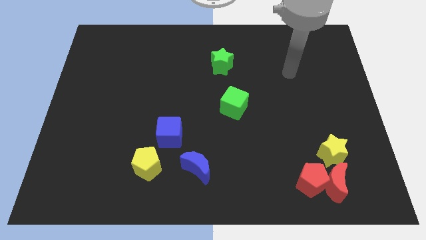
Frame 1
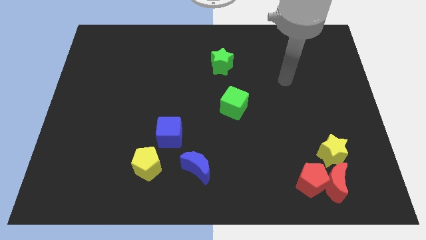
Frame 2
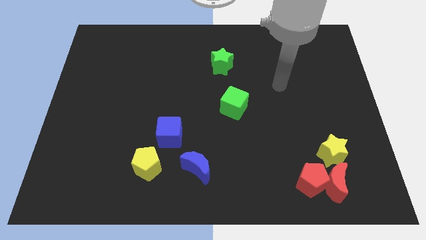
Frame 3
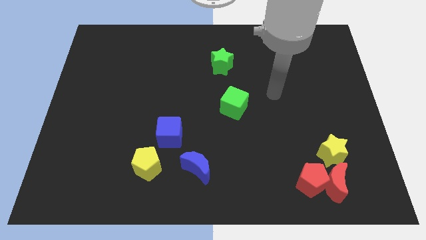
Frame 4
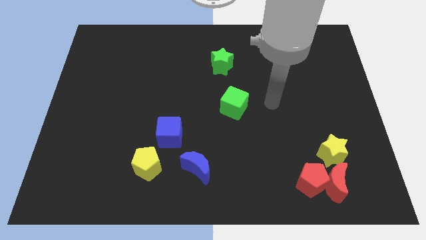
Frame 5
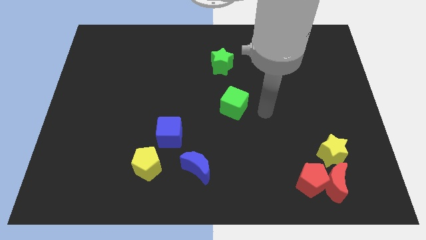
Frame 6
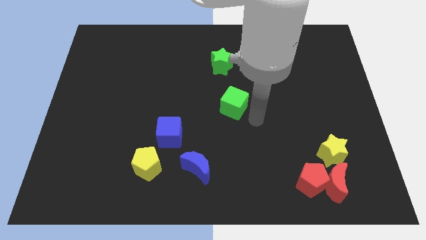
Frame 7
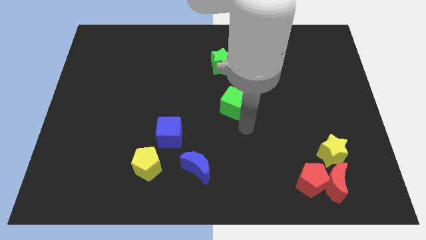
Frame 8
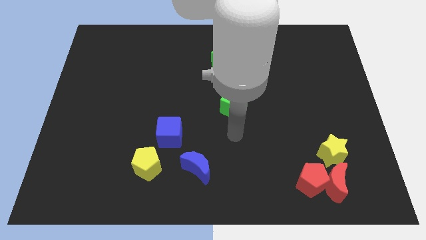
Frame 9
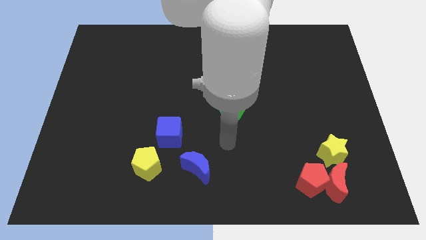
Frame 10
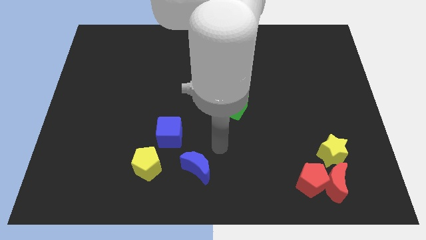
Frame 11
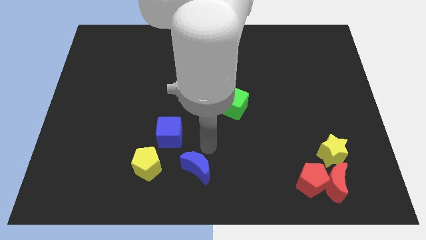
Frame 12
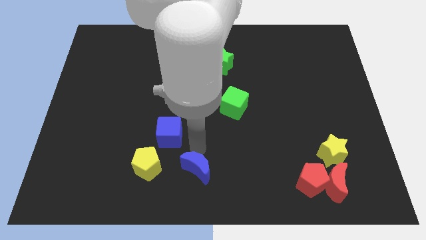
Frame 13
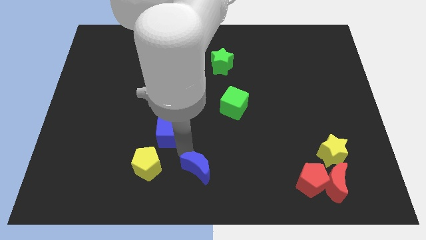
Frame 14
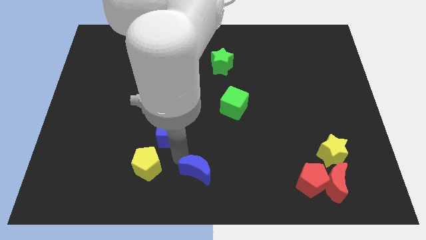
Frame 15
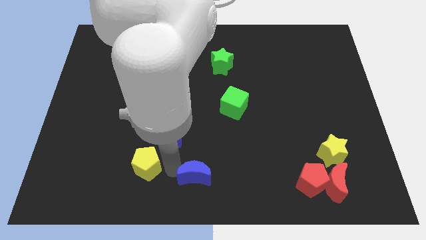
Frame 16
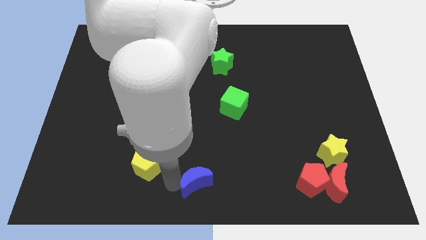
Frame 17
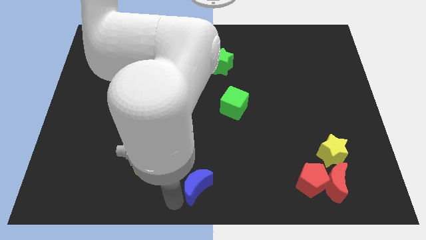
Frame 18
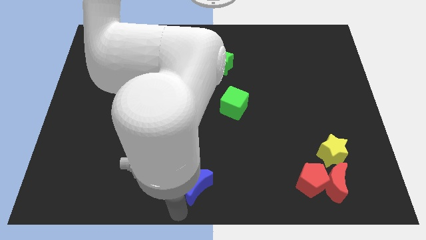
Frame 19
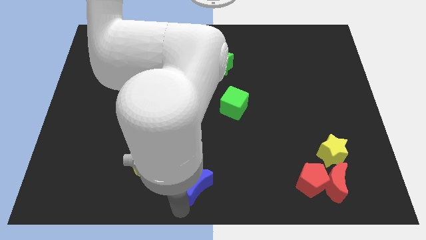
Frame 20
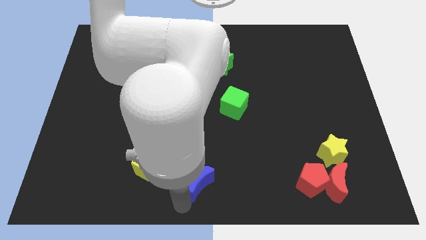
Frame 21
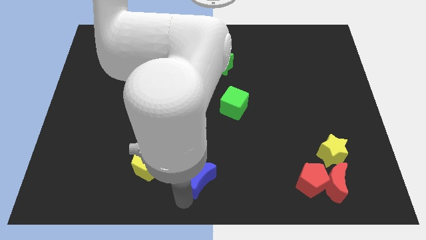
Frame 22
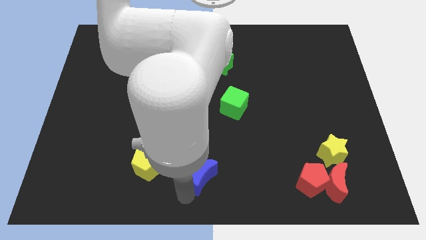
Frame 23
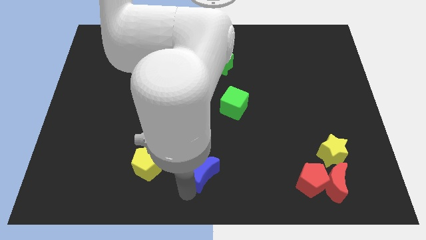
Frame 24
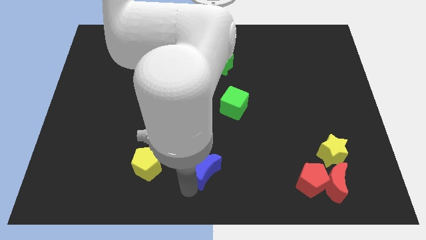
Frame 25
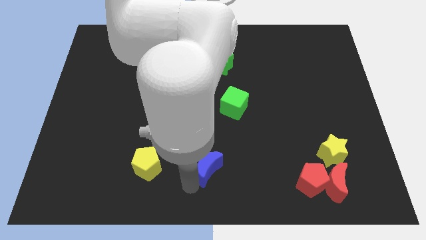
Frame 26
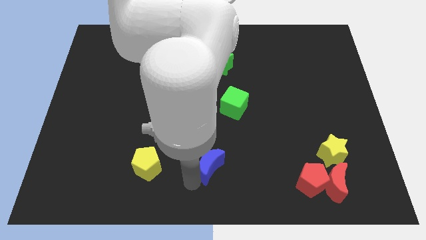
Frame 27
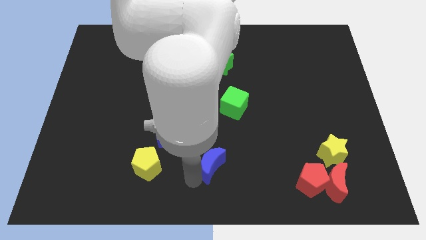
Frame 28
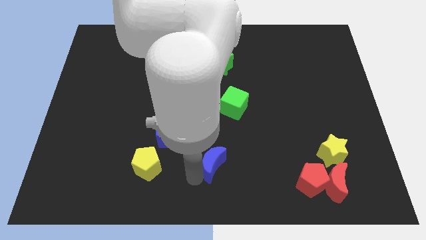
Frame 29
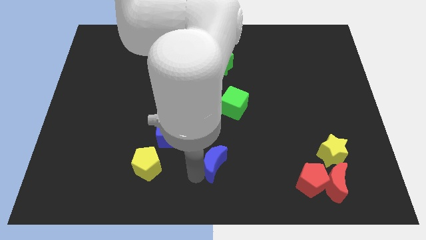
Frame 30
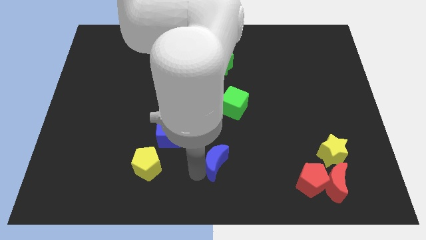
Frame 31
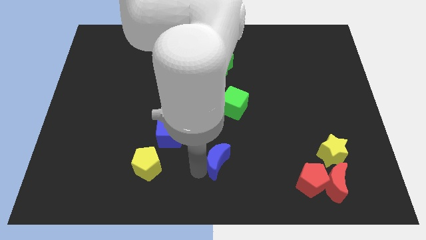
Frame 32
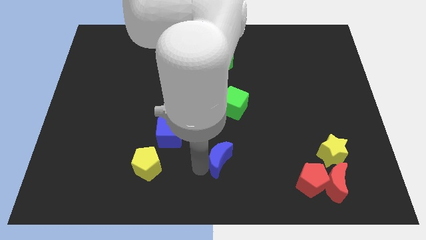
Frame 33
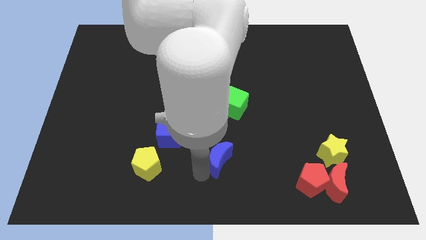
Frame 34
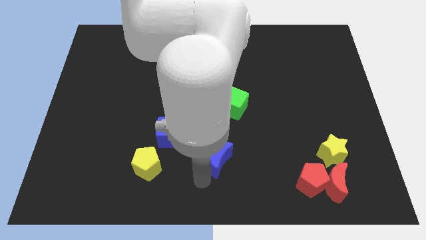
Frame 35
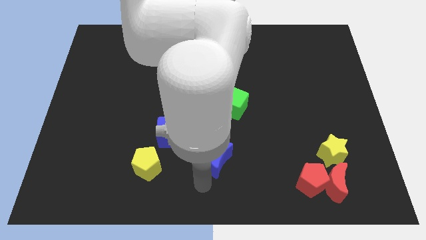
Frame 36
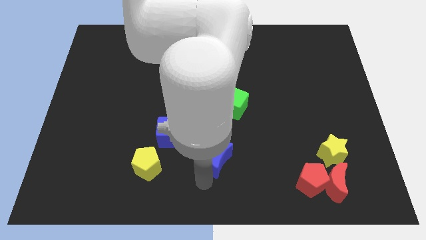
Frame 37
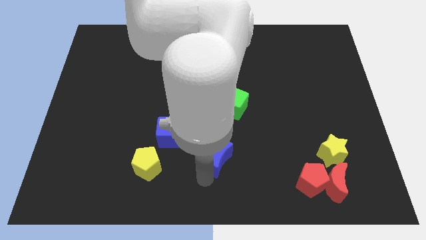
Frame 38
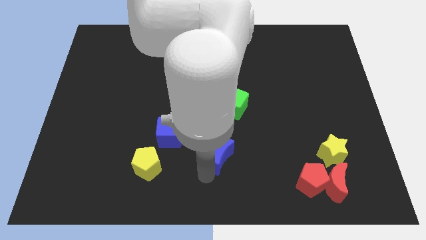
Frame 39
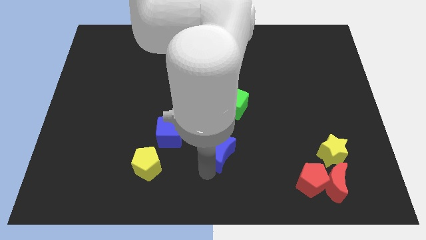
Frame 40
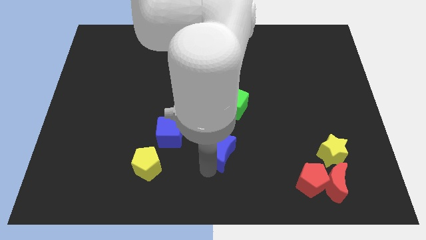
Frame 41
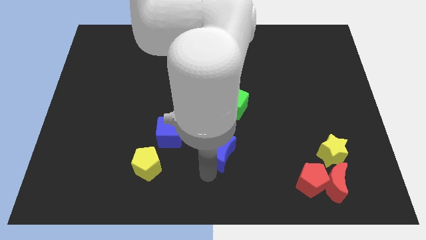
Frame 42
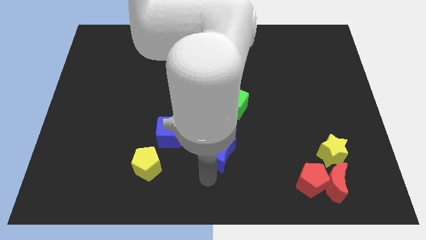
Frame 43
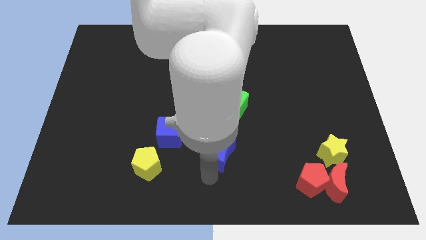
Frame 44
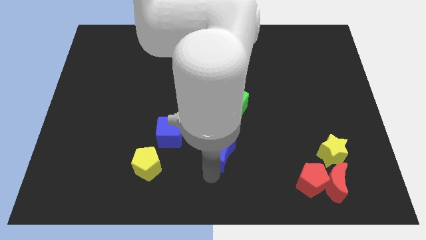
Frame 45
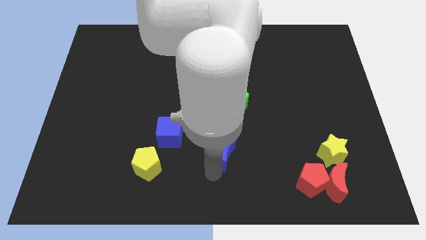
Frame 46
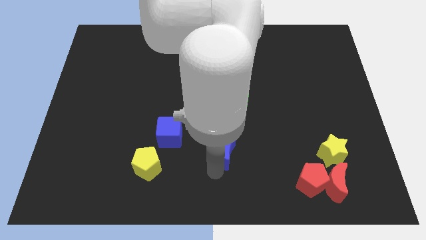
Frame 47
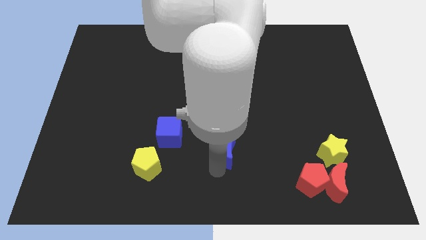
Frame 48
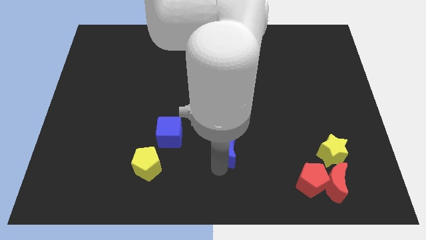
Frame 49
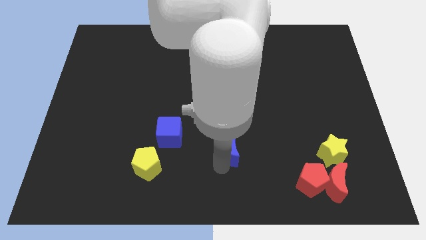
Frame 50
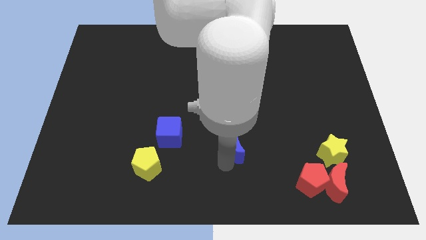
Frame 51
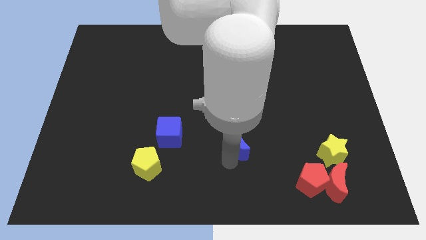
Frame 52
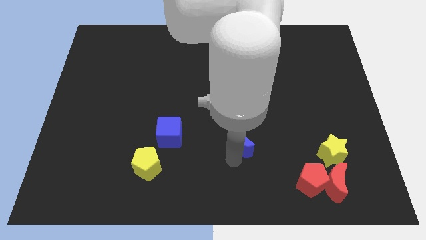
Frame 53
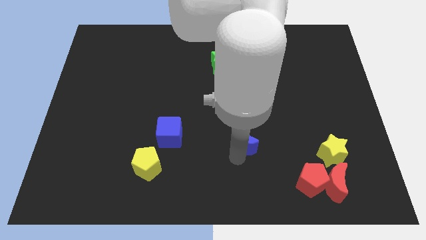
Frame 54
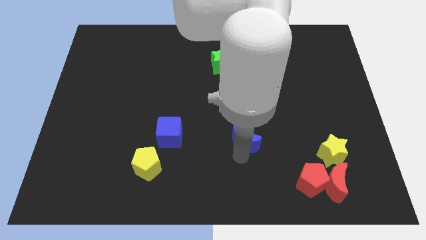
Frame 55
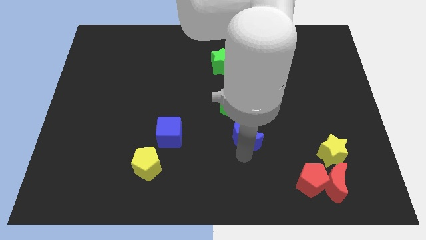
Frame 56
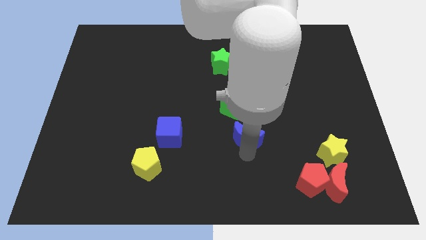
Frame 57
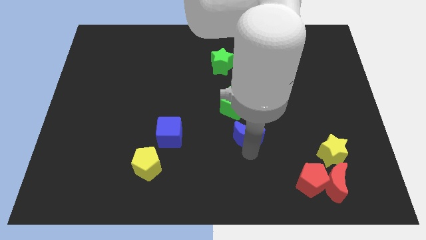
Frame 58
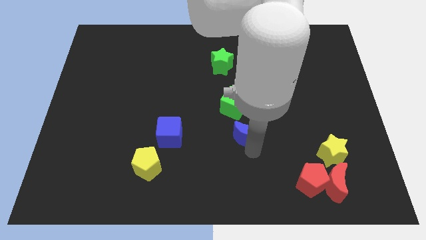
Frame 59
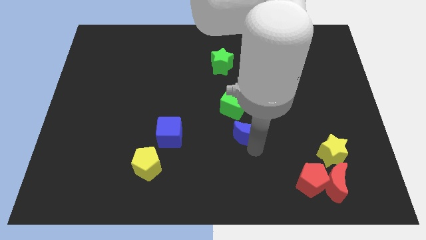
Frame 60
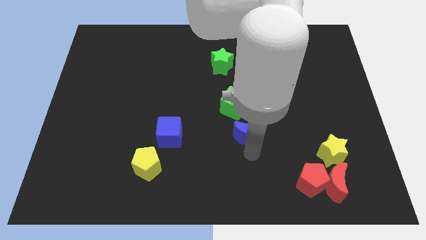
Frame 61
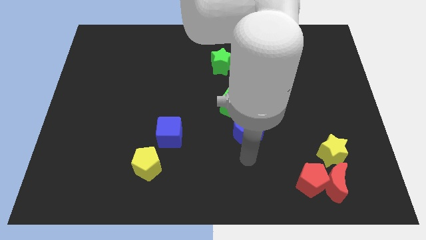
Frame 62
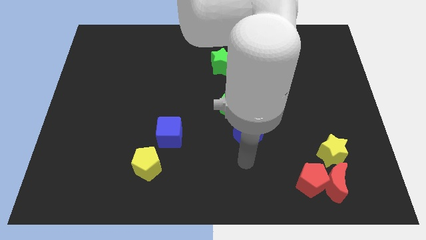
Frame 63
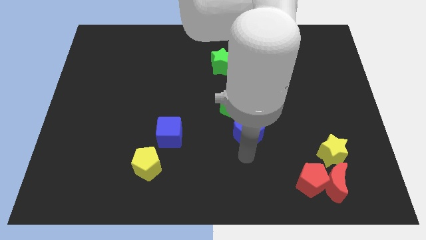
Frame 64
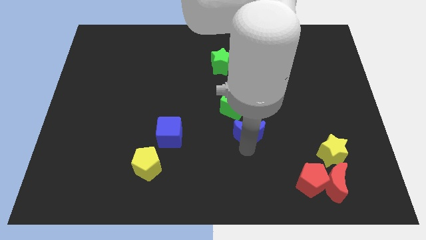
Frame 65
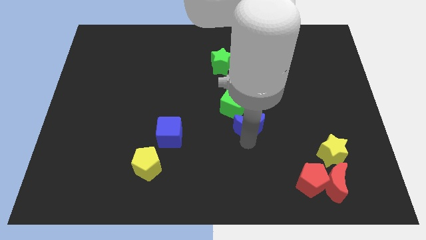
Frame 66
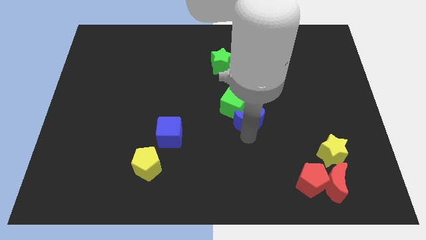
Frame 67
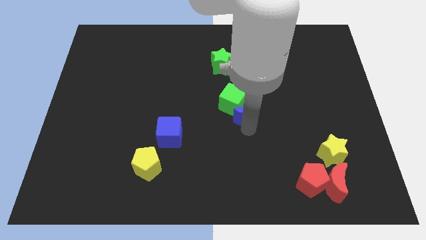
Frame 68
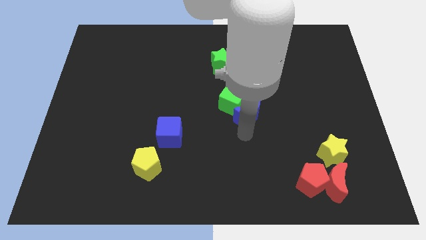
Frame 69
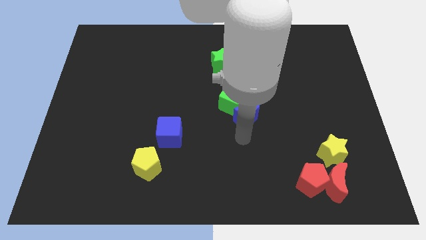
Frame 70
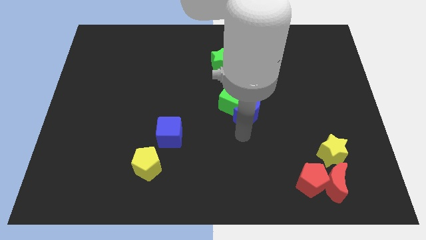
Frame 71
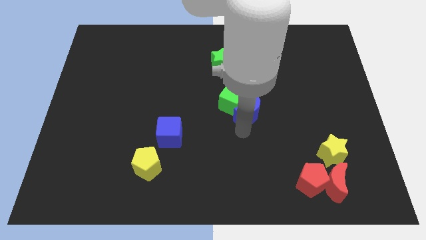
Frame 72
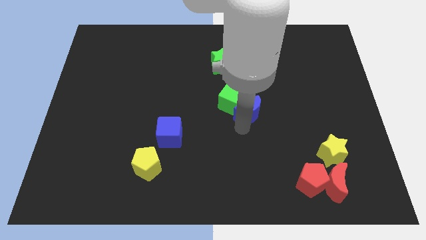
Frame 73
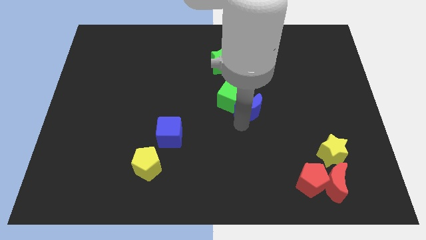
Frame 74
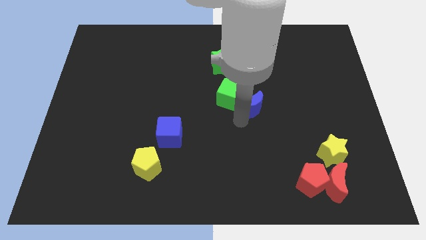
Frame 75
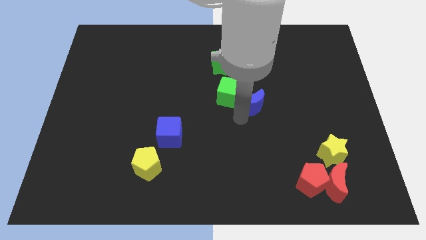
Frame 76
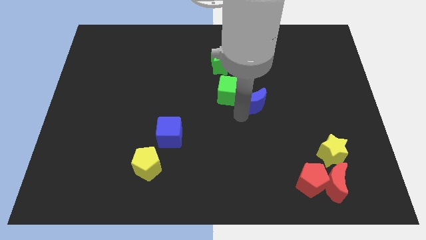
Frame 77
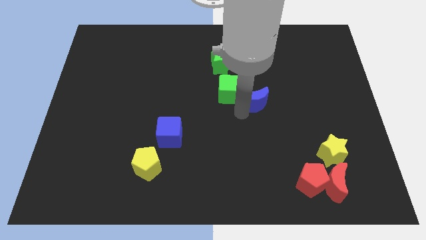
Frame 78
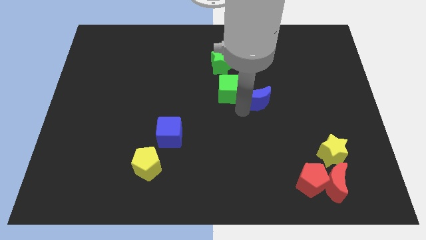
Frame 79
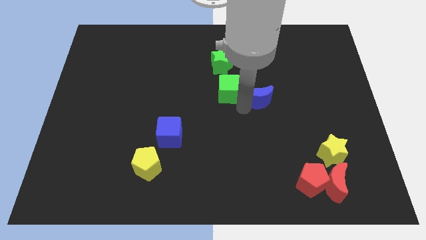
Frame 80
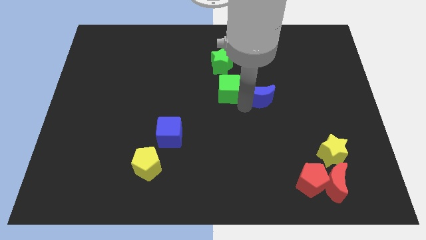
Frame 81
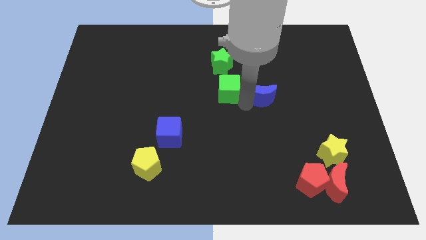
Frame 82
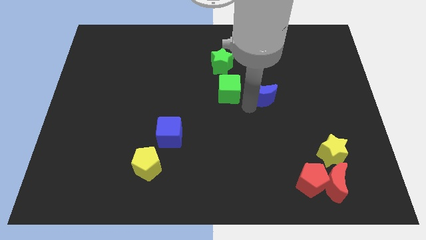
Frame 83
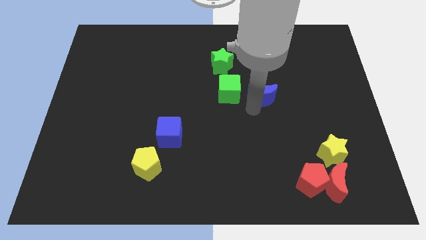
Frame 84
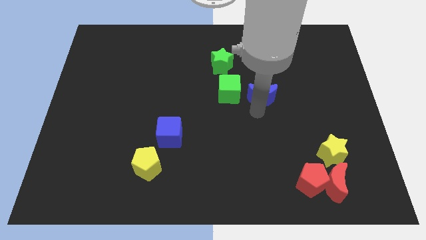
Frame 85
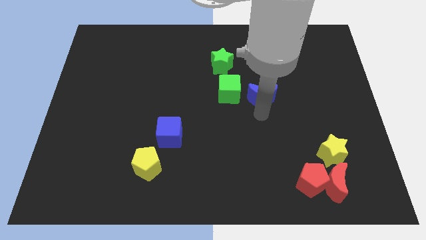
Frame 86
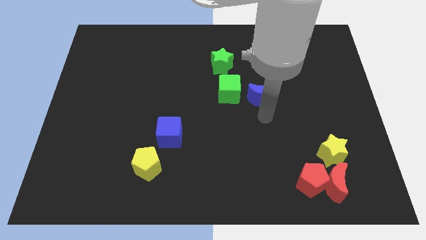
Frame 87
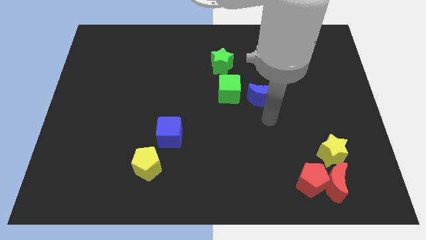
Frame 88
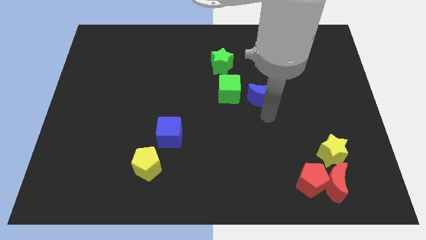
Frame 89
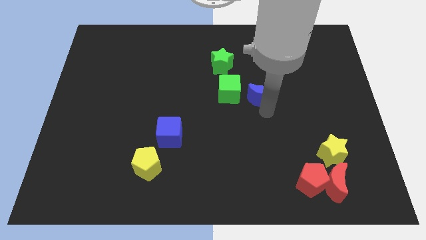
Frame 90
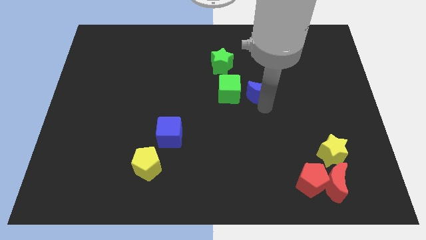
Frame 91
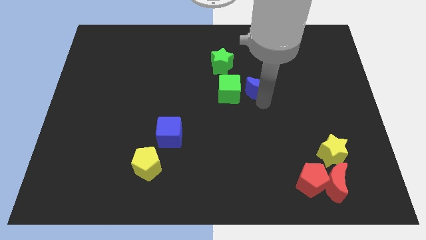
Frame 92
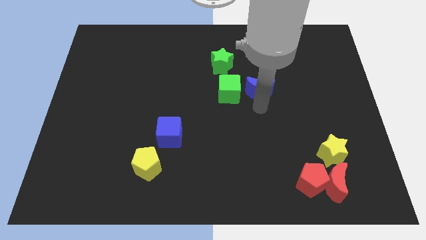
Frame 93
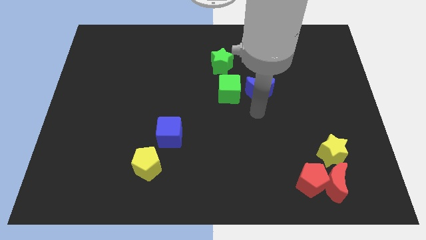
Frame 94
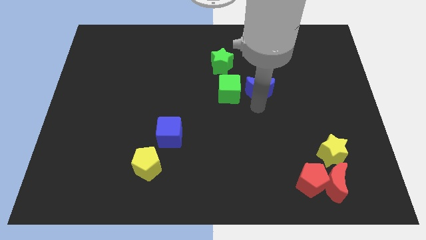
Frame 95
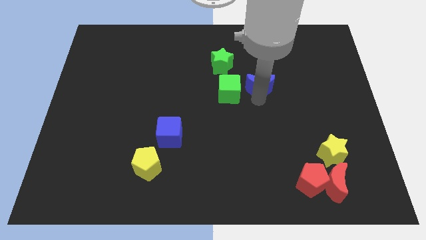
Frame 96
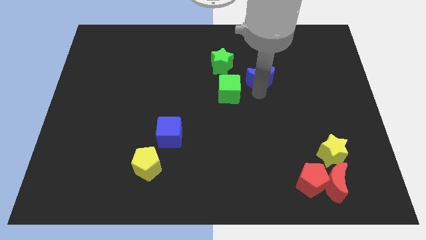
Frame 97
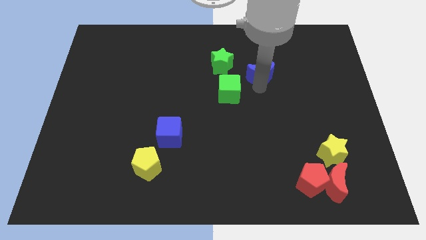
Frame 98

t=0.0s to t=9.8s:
put the blue moon to the right of the green star
